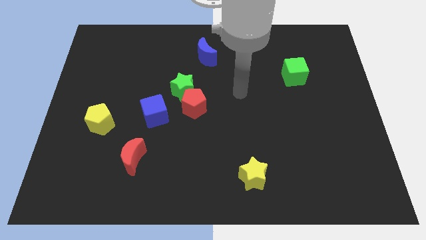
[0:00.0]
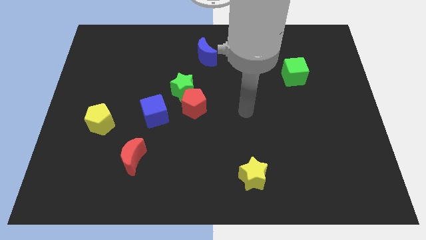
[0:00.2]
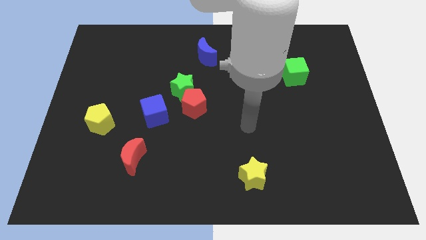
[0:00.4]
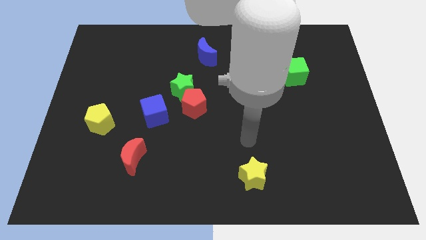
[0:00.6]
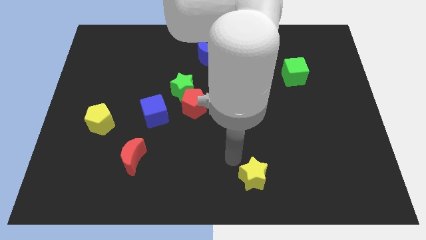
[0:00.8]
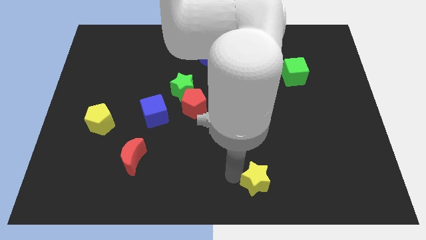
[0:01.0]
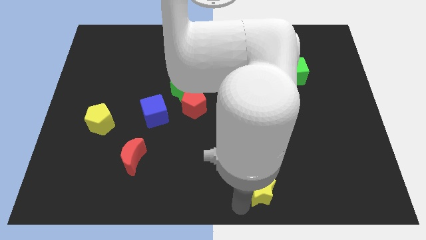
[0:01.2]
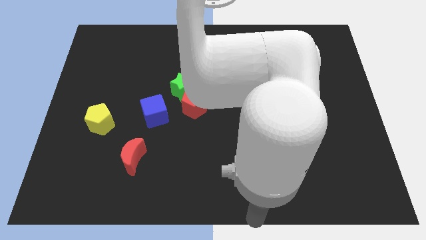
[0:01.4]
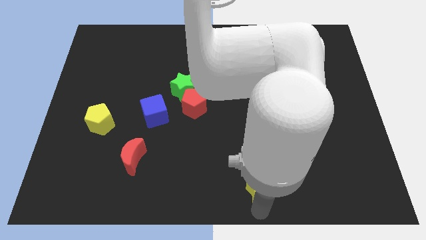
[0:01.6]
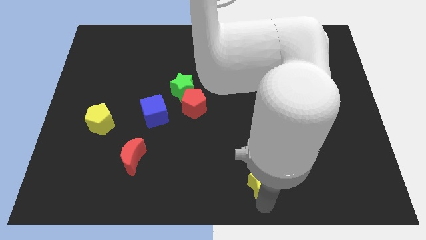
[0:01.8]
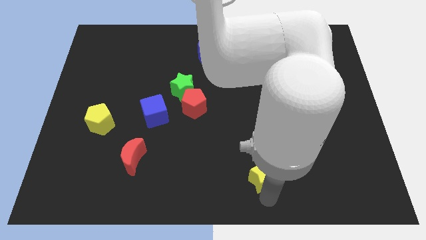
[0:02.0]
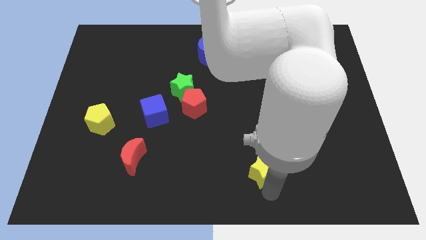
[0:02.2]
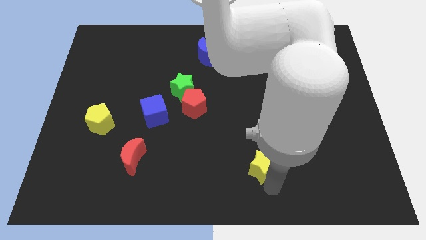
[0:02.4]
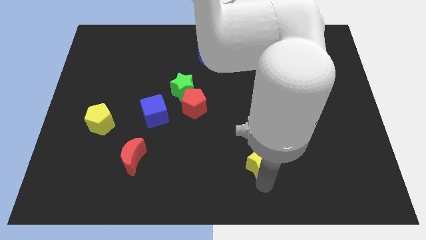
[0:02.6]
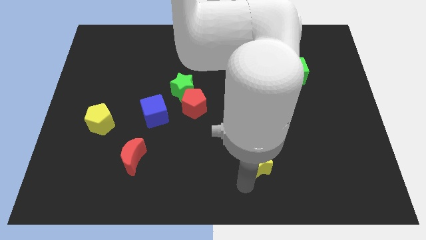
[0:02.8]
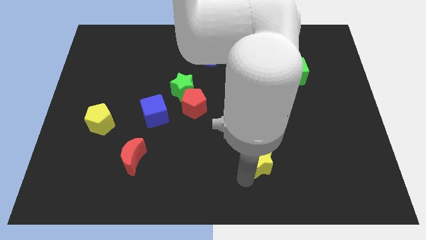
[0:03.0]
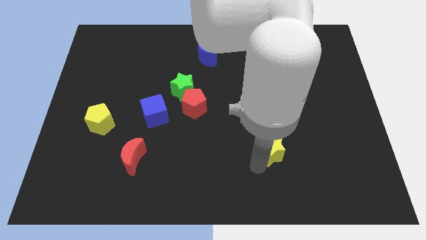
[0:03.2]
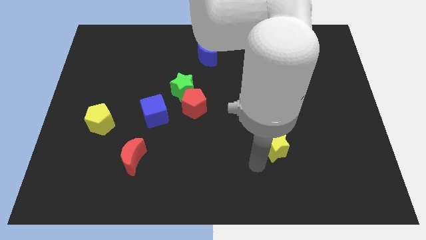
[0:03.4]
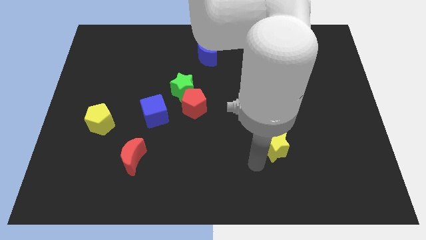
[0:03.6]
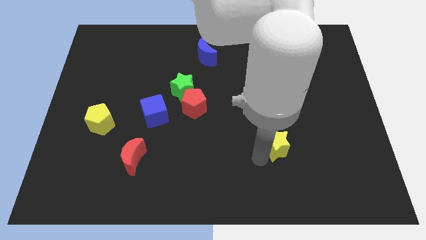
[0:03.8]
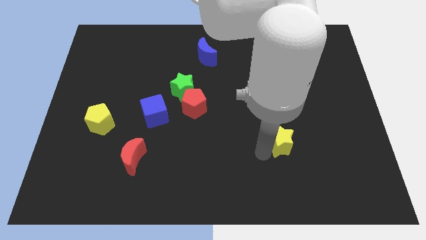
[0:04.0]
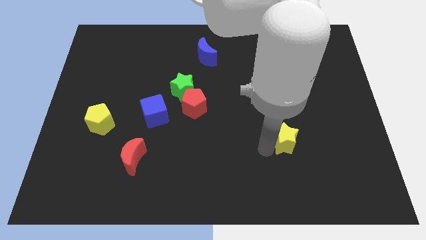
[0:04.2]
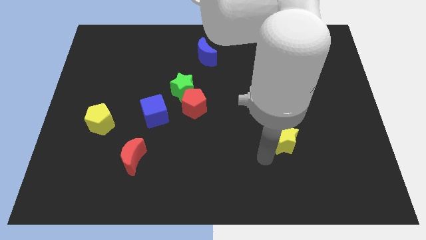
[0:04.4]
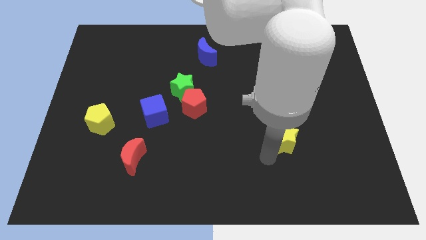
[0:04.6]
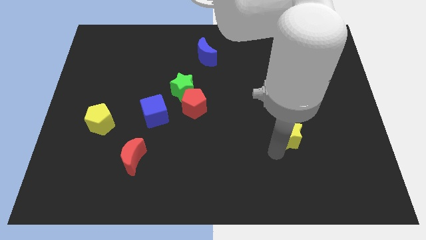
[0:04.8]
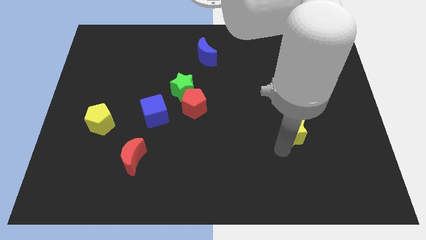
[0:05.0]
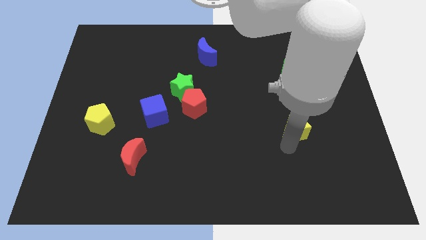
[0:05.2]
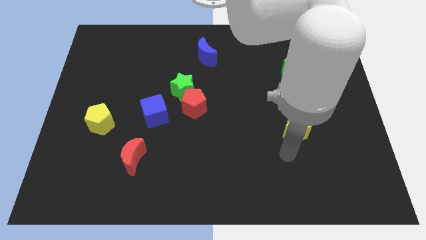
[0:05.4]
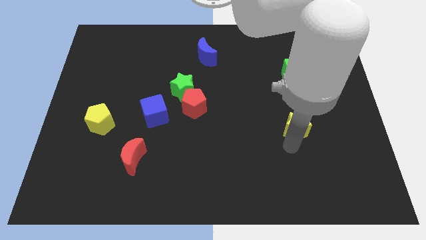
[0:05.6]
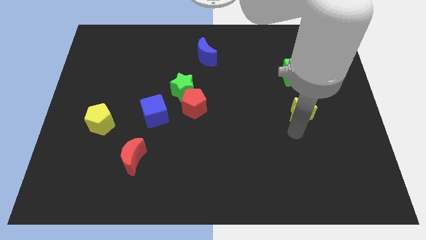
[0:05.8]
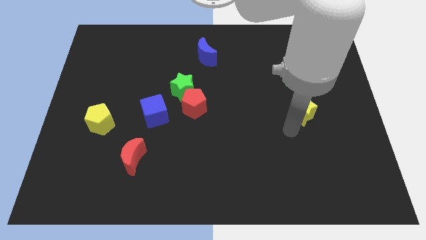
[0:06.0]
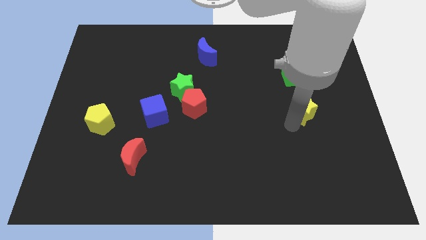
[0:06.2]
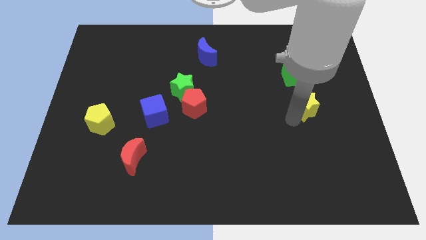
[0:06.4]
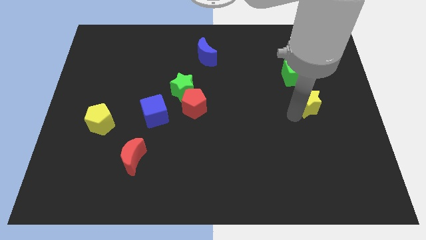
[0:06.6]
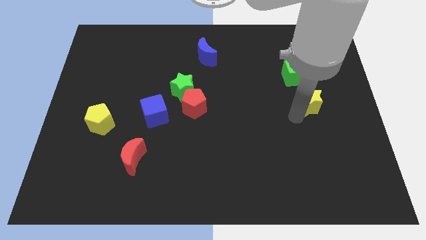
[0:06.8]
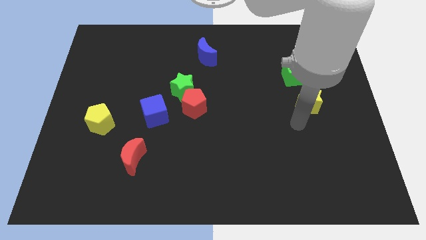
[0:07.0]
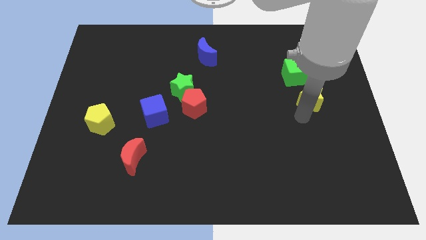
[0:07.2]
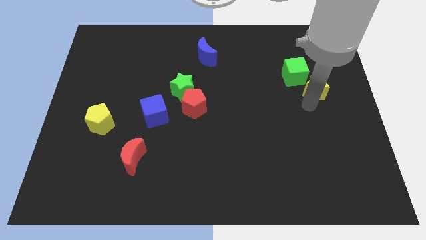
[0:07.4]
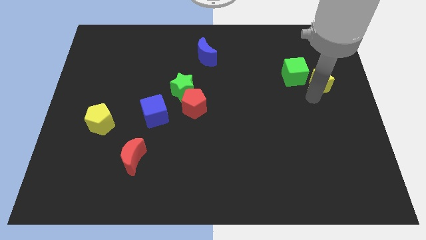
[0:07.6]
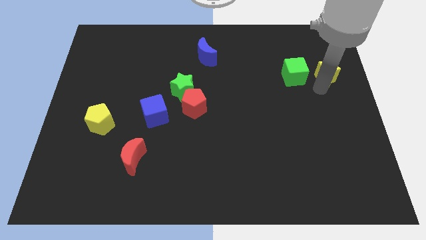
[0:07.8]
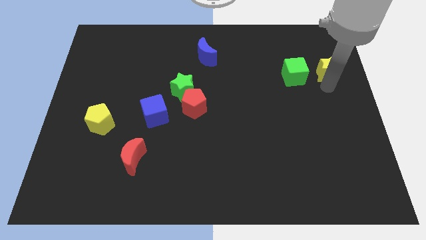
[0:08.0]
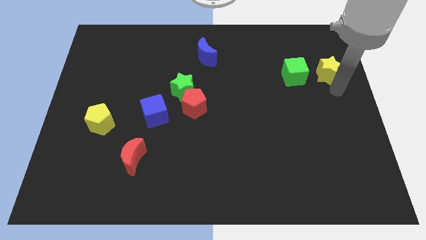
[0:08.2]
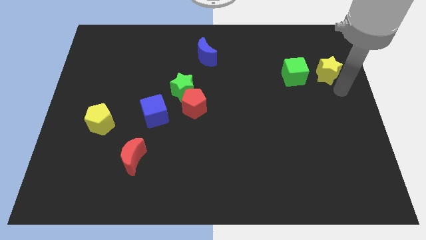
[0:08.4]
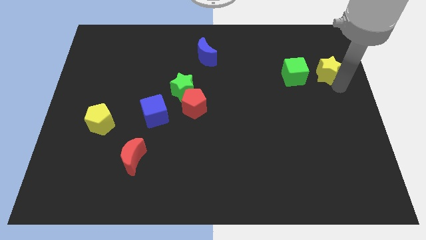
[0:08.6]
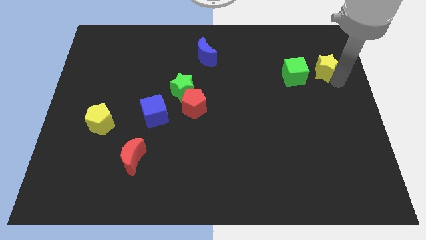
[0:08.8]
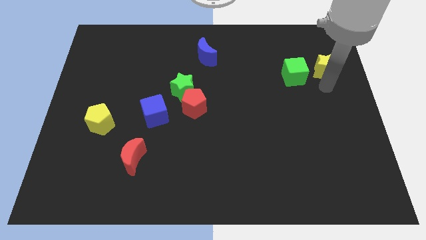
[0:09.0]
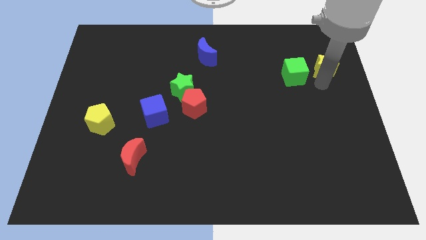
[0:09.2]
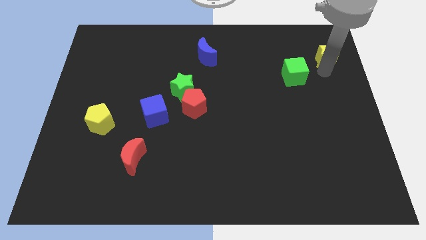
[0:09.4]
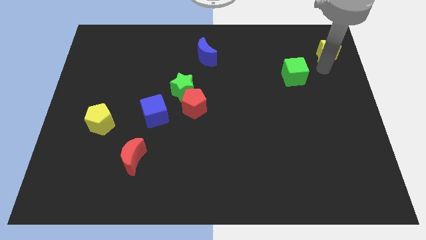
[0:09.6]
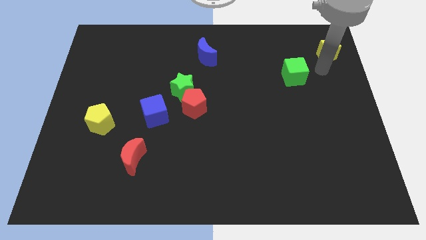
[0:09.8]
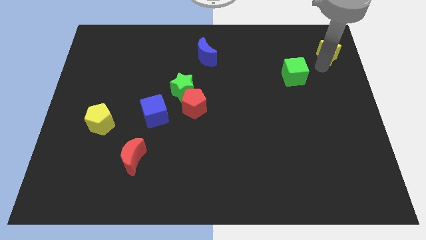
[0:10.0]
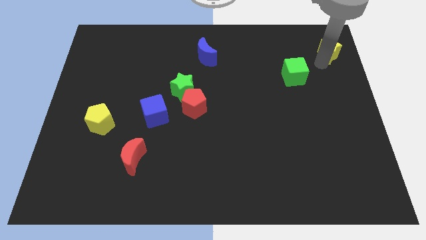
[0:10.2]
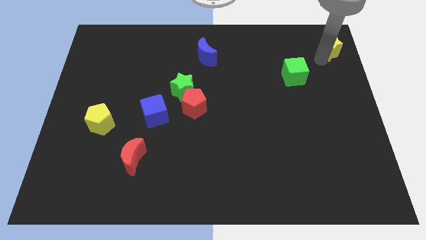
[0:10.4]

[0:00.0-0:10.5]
move the yellow star to the upper right corner

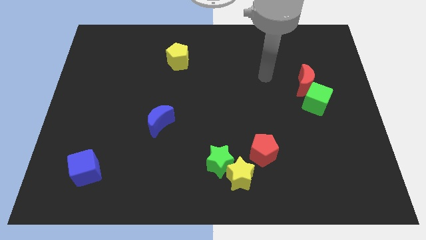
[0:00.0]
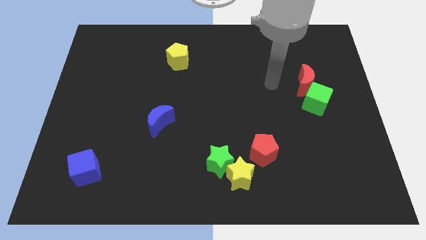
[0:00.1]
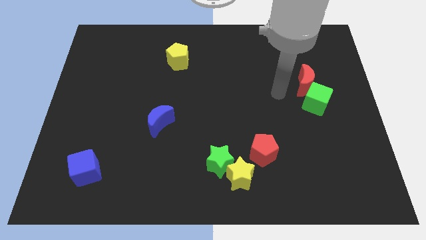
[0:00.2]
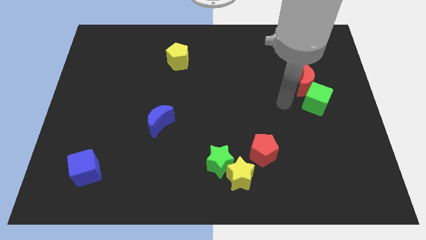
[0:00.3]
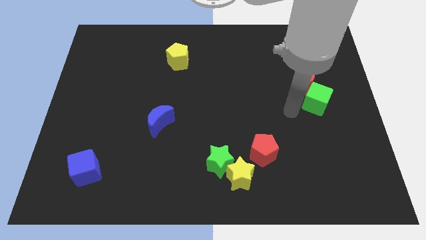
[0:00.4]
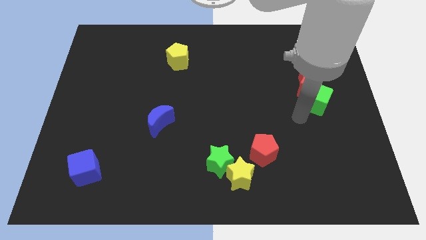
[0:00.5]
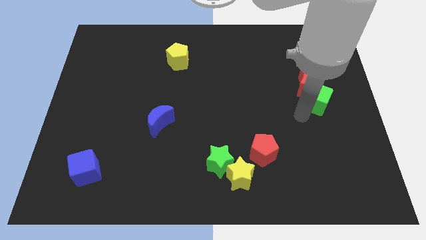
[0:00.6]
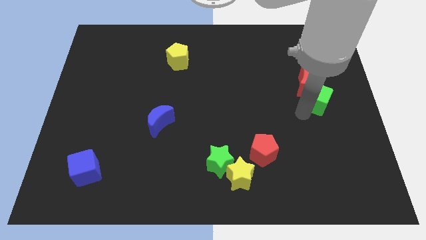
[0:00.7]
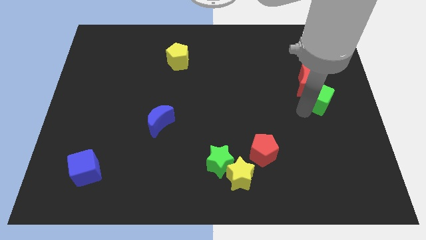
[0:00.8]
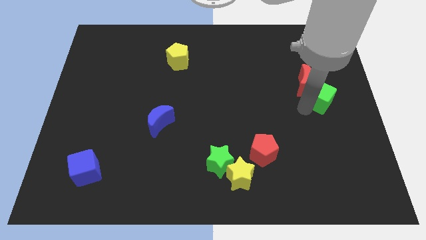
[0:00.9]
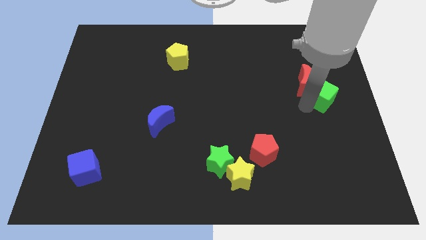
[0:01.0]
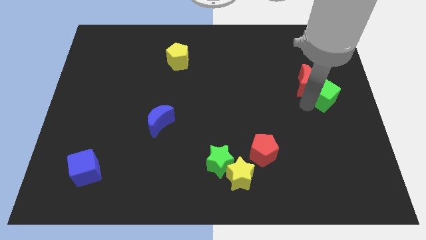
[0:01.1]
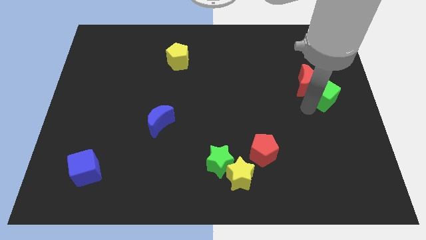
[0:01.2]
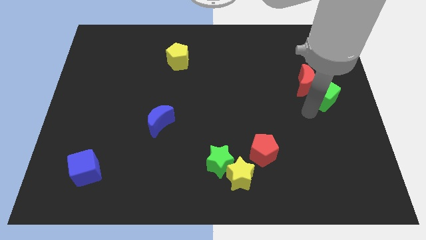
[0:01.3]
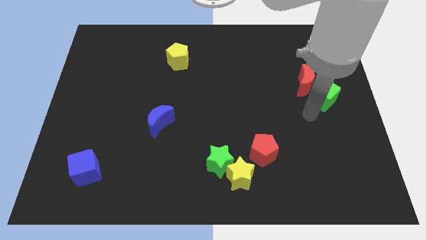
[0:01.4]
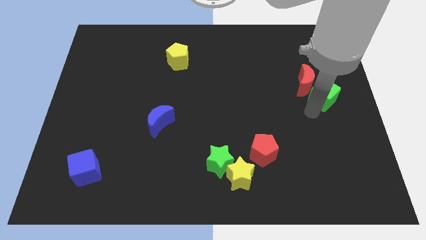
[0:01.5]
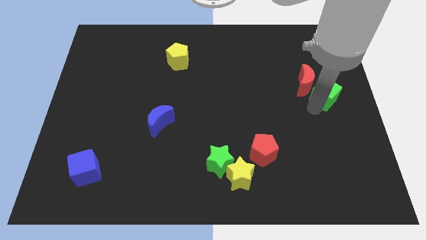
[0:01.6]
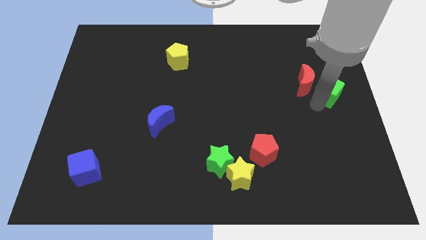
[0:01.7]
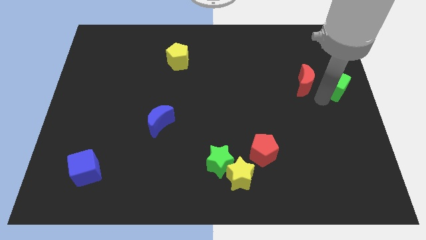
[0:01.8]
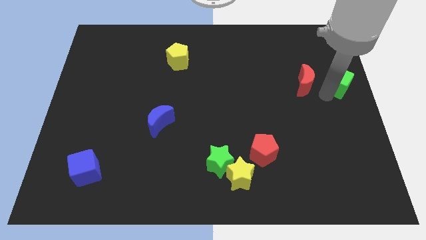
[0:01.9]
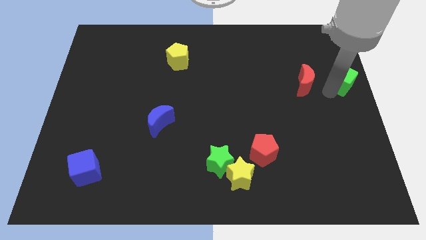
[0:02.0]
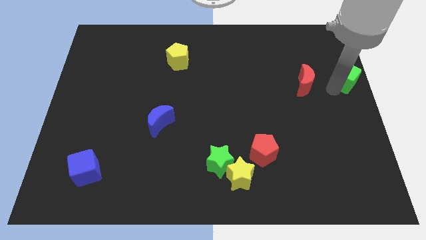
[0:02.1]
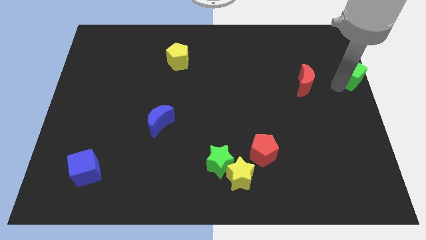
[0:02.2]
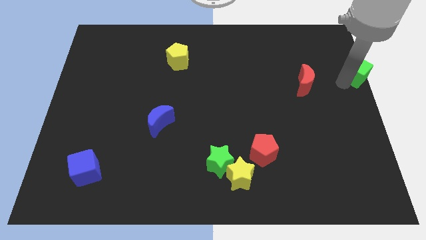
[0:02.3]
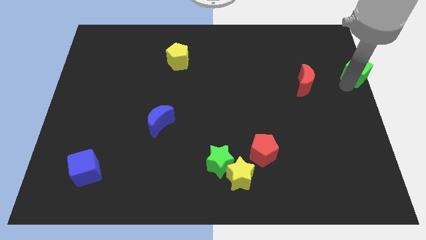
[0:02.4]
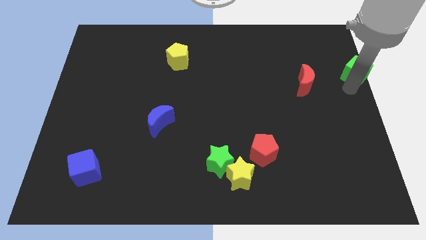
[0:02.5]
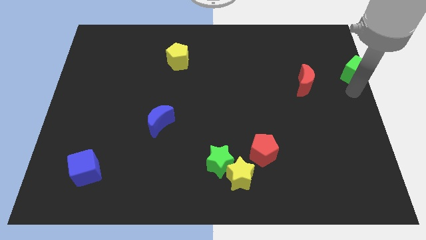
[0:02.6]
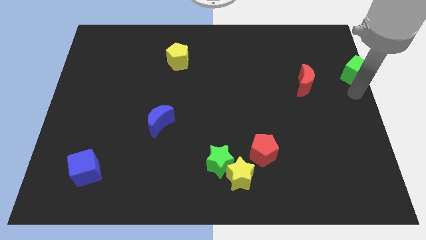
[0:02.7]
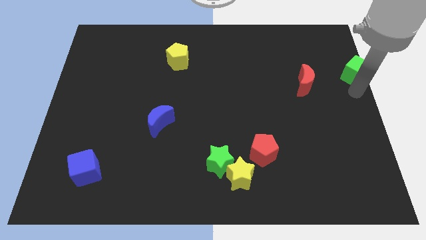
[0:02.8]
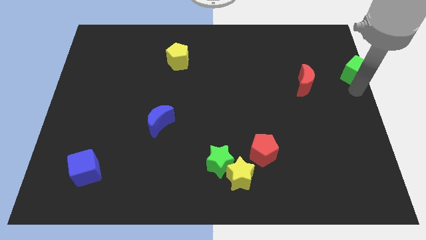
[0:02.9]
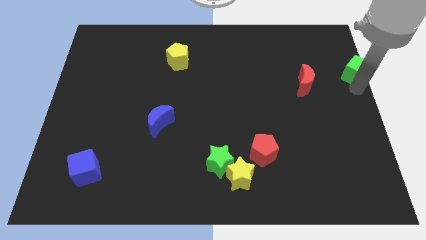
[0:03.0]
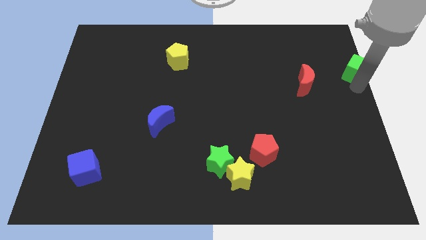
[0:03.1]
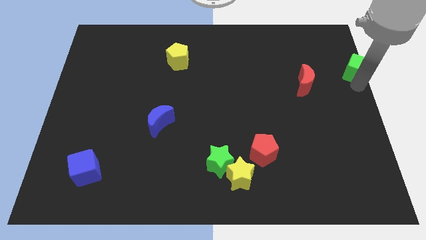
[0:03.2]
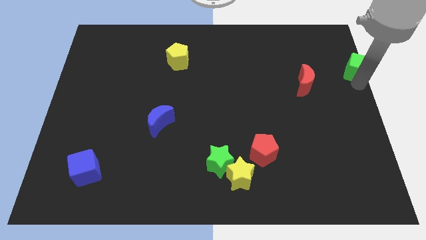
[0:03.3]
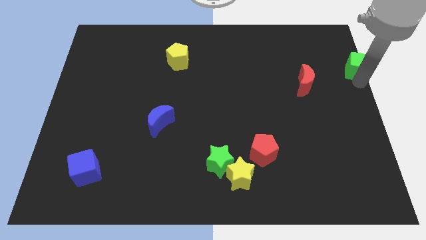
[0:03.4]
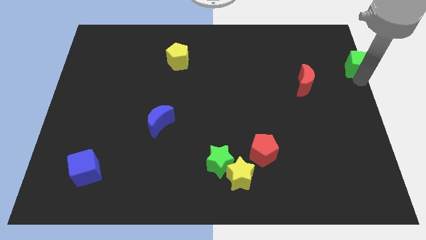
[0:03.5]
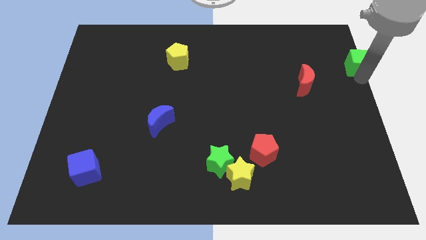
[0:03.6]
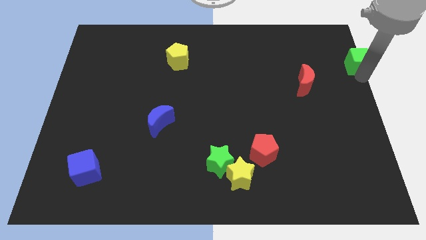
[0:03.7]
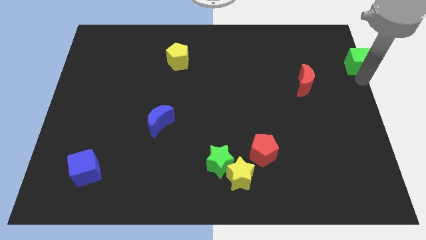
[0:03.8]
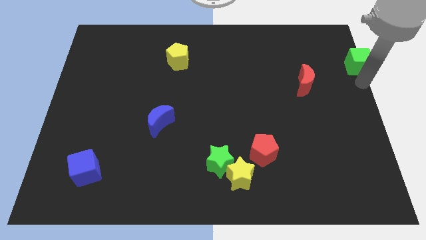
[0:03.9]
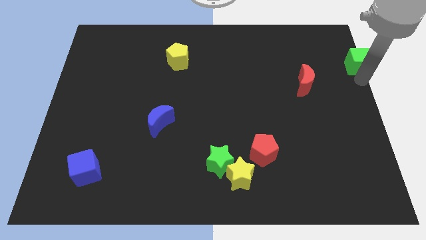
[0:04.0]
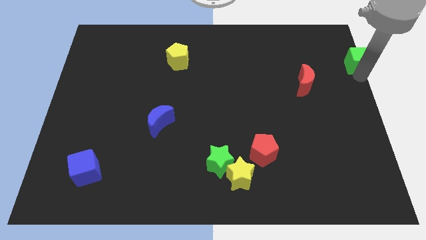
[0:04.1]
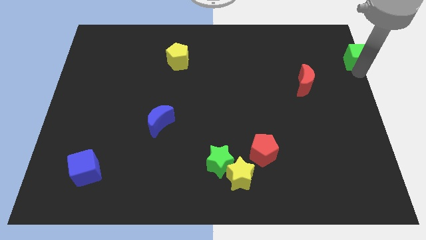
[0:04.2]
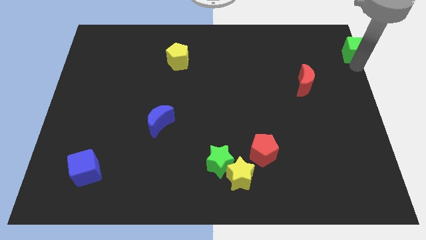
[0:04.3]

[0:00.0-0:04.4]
slide the green cube to the top right corner
